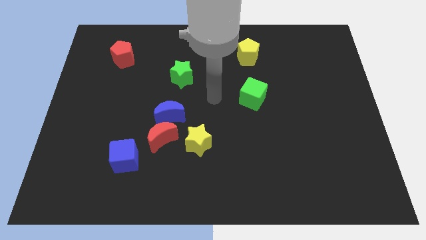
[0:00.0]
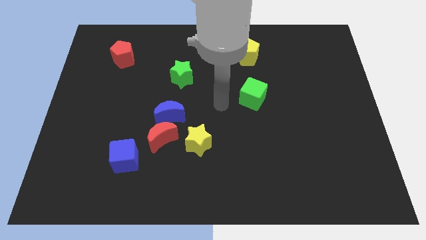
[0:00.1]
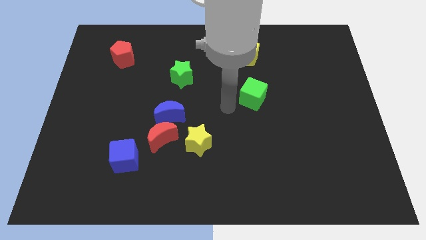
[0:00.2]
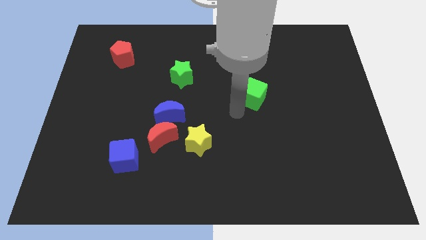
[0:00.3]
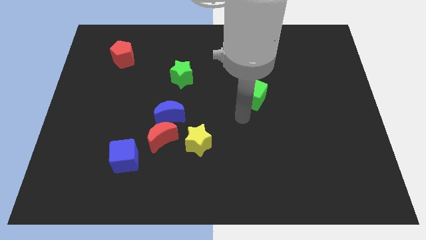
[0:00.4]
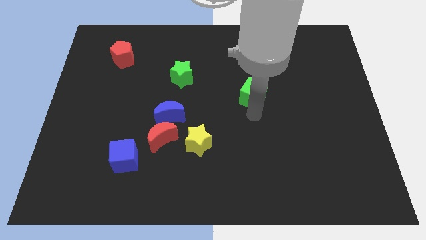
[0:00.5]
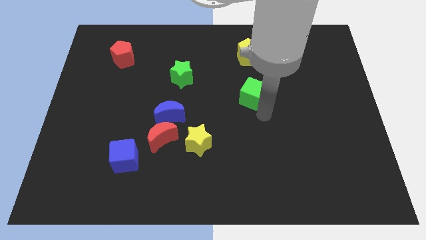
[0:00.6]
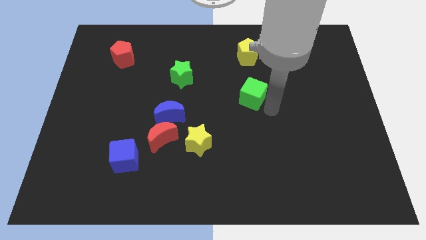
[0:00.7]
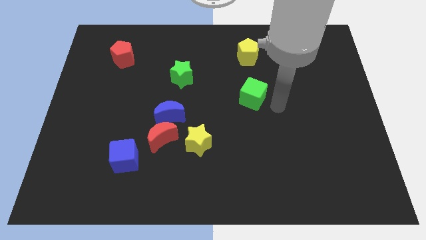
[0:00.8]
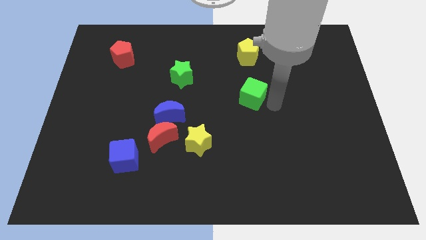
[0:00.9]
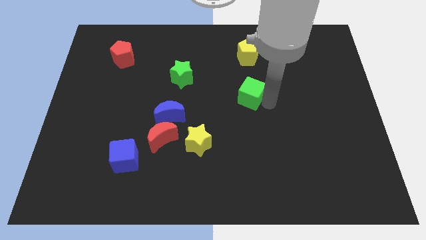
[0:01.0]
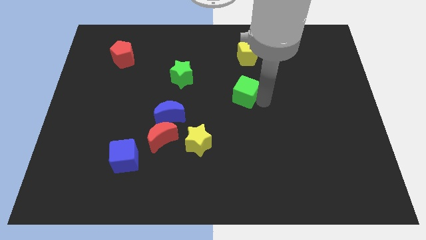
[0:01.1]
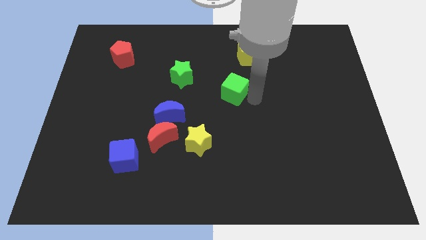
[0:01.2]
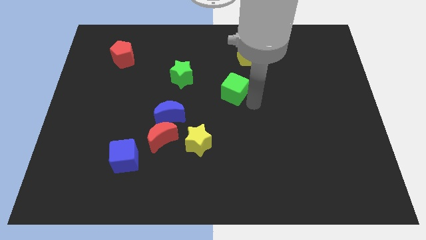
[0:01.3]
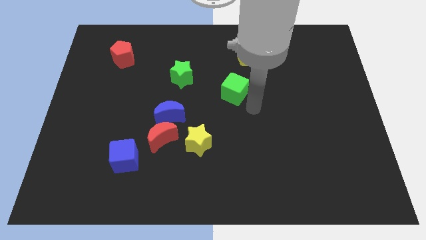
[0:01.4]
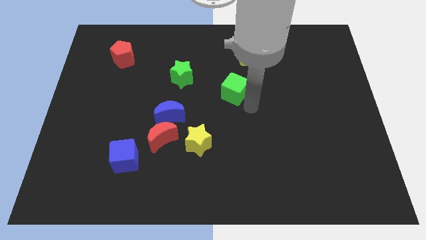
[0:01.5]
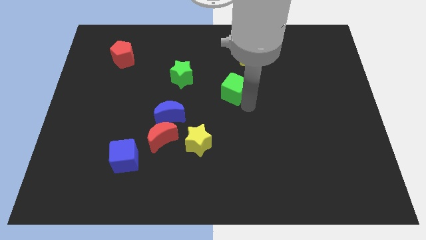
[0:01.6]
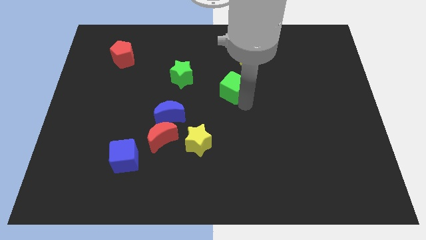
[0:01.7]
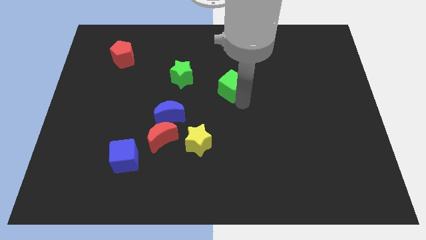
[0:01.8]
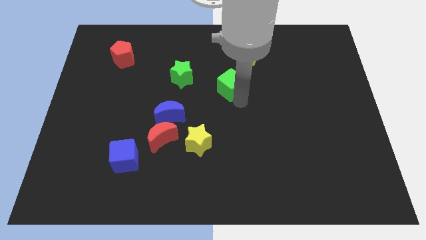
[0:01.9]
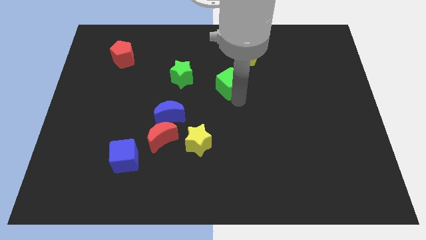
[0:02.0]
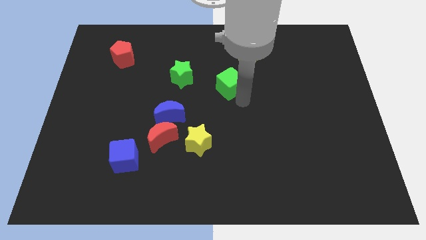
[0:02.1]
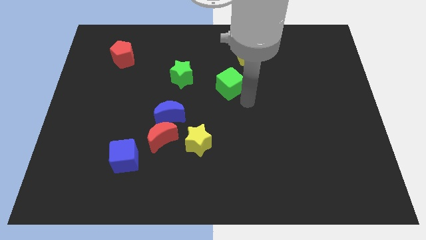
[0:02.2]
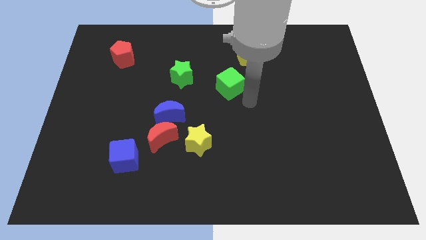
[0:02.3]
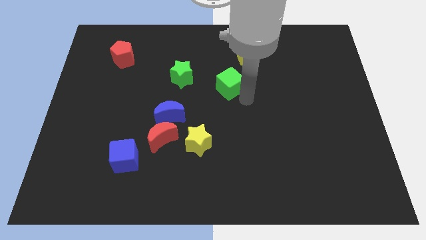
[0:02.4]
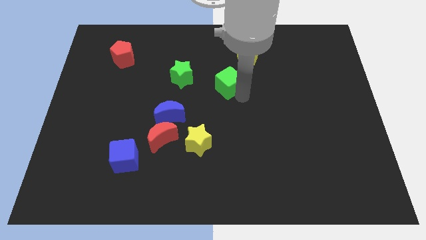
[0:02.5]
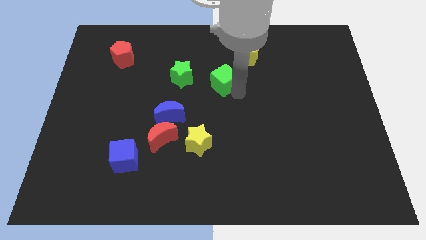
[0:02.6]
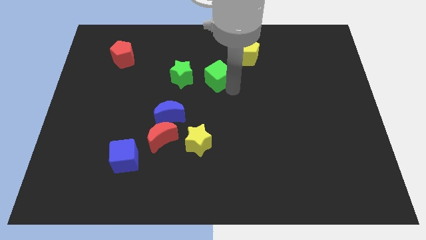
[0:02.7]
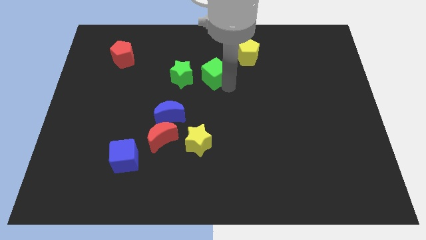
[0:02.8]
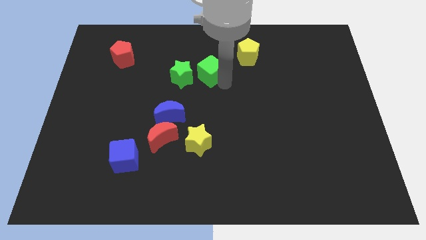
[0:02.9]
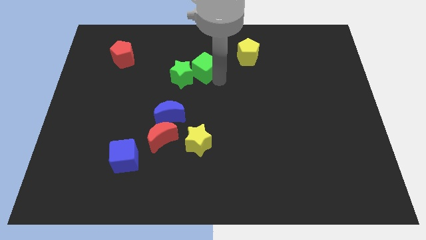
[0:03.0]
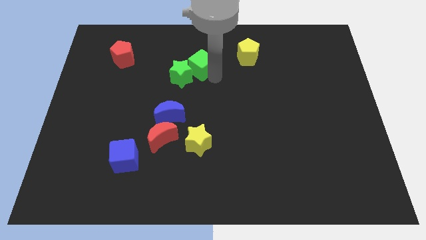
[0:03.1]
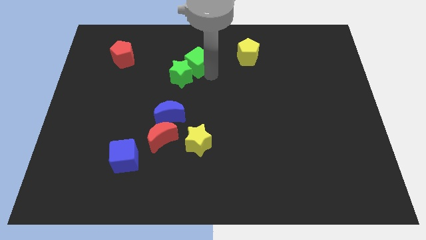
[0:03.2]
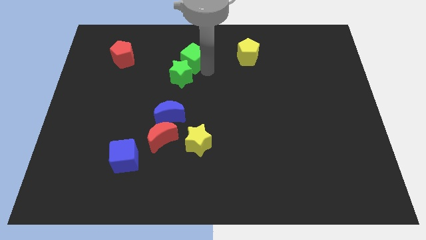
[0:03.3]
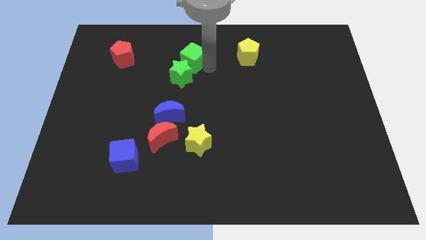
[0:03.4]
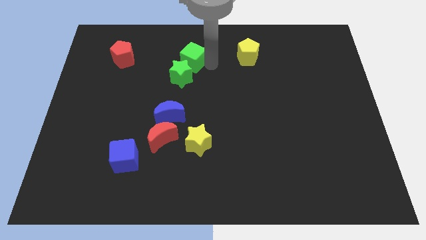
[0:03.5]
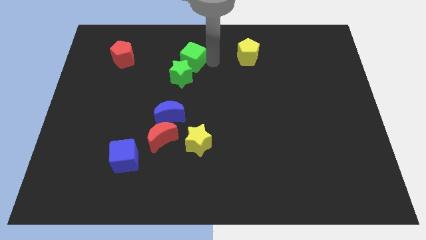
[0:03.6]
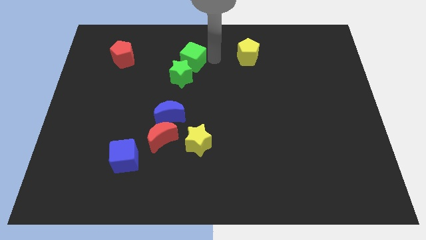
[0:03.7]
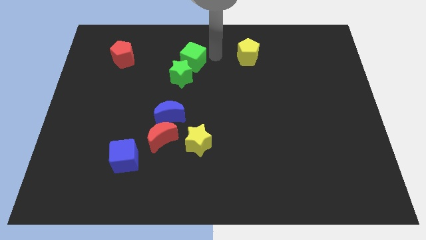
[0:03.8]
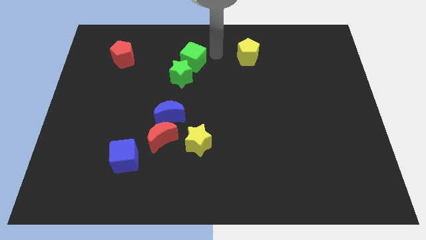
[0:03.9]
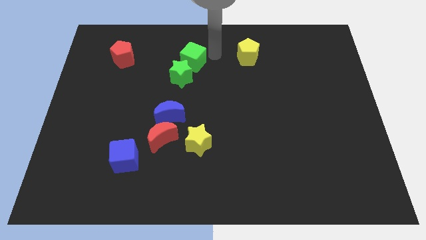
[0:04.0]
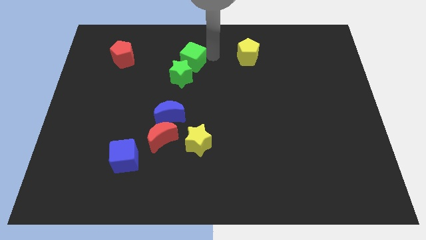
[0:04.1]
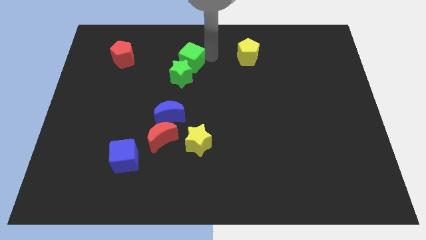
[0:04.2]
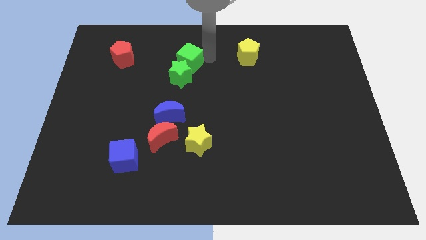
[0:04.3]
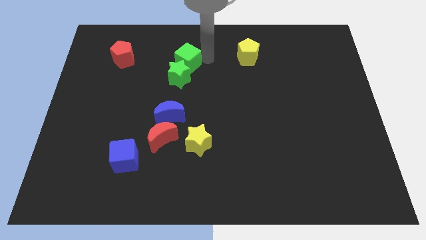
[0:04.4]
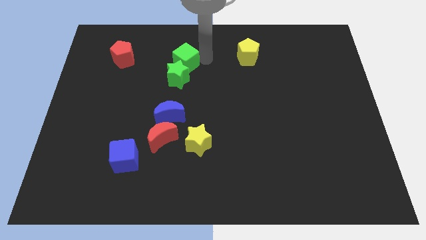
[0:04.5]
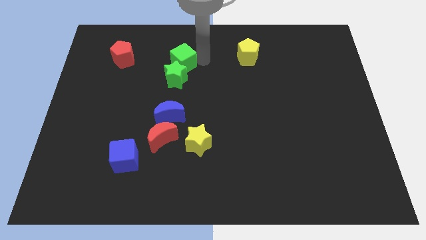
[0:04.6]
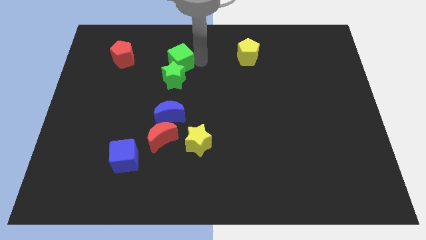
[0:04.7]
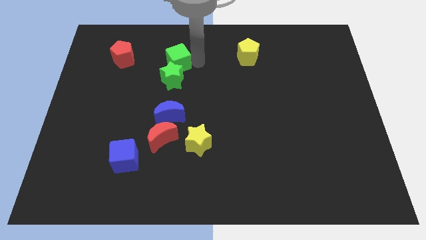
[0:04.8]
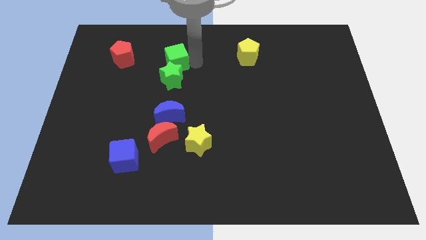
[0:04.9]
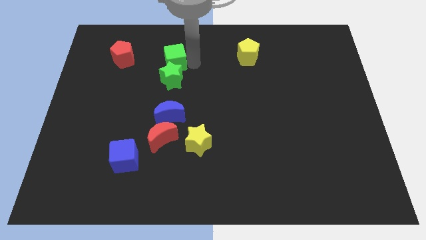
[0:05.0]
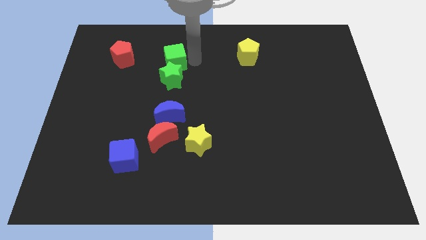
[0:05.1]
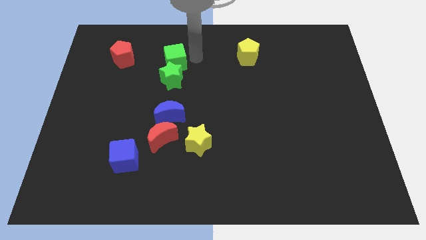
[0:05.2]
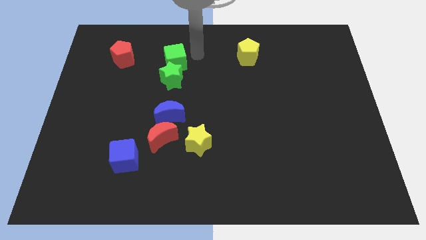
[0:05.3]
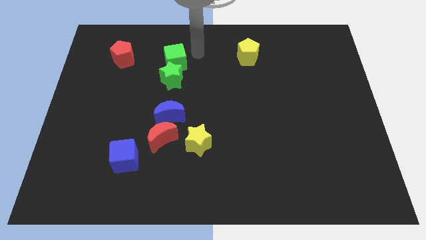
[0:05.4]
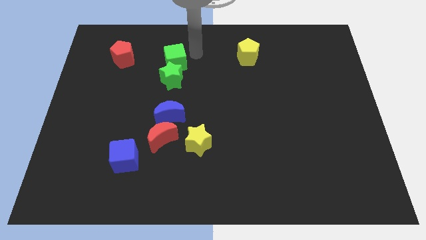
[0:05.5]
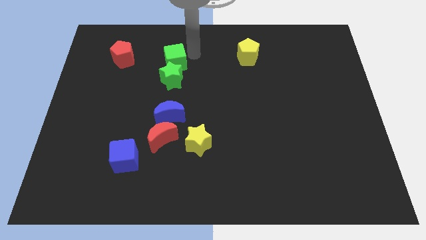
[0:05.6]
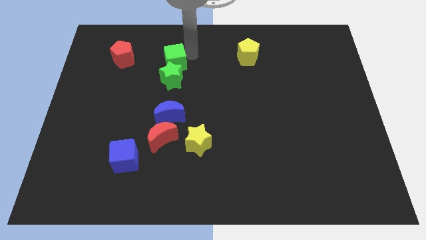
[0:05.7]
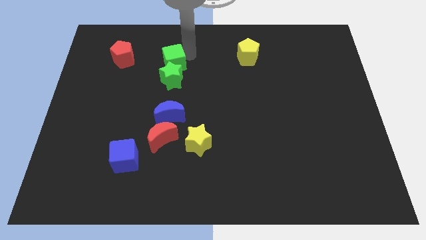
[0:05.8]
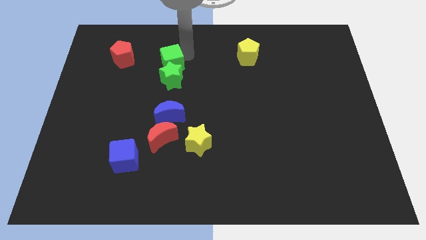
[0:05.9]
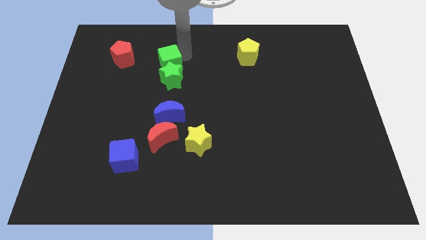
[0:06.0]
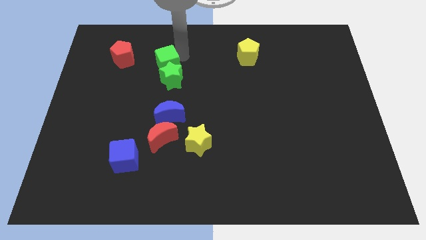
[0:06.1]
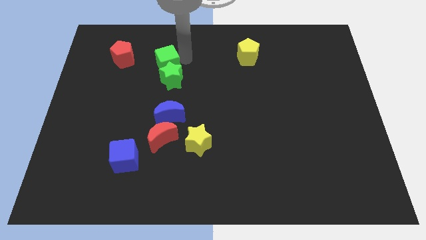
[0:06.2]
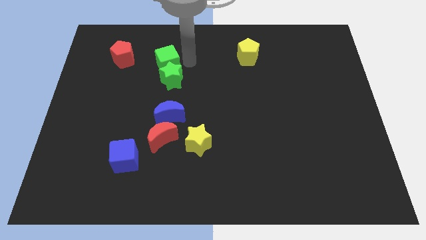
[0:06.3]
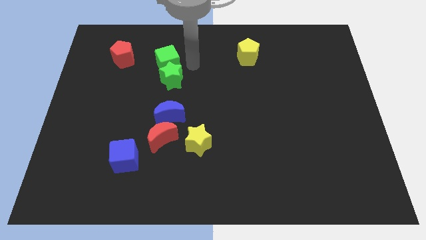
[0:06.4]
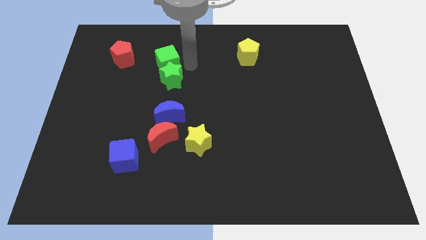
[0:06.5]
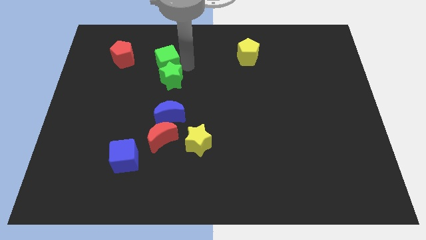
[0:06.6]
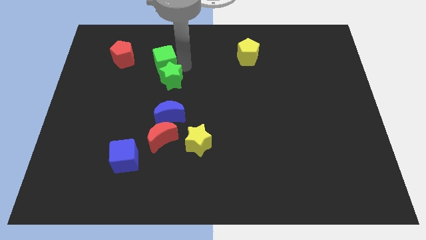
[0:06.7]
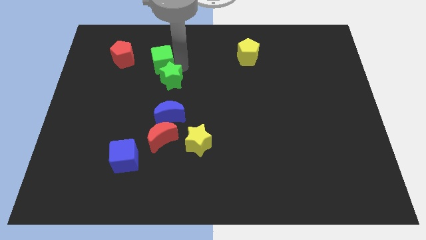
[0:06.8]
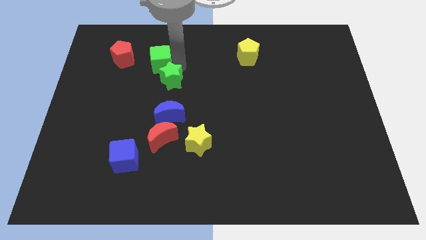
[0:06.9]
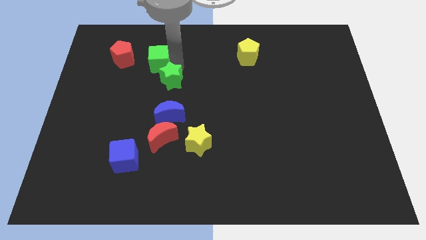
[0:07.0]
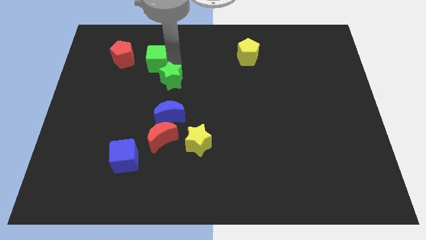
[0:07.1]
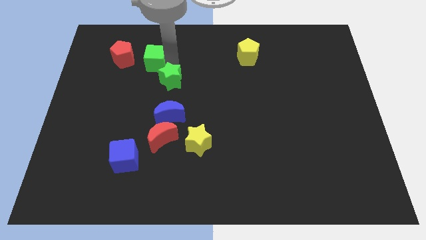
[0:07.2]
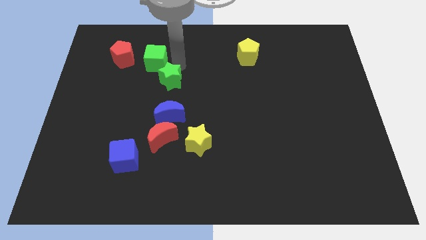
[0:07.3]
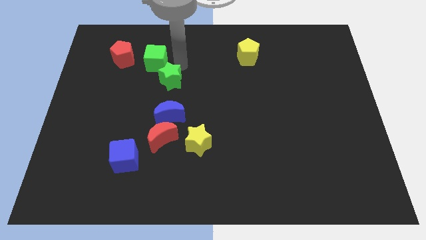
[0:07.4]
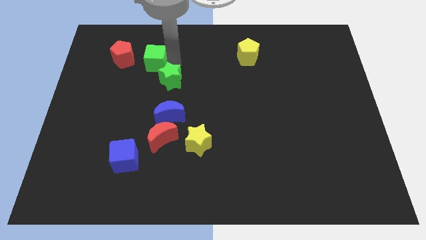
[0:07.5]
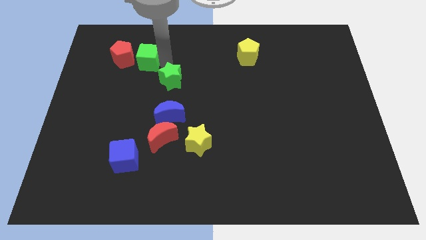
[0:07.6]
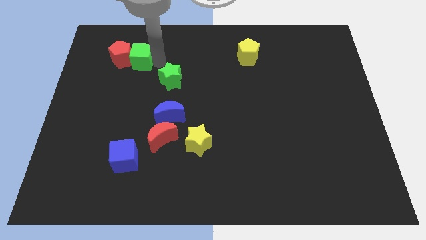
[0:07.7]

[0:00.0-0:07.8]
slide the green cube towards the red pentagon
